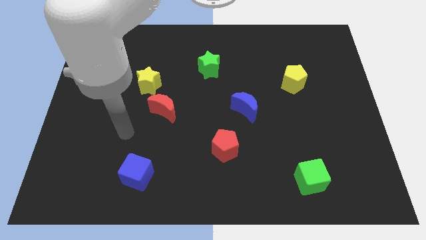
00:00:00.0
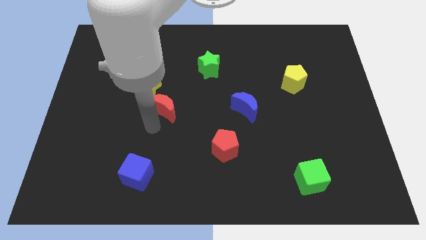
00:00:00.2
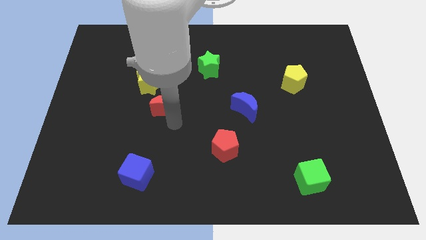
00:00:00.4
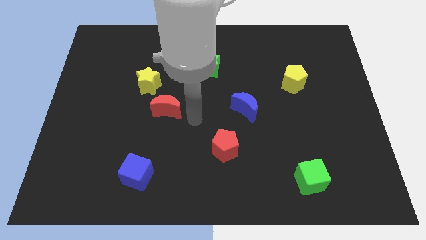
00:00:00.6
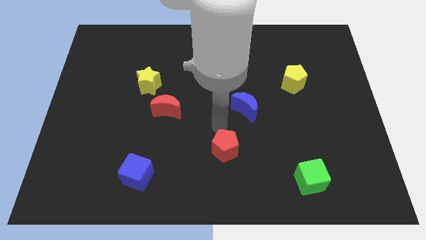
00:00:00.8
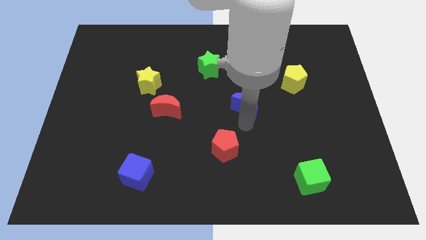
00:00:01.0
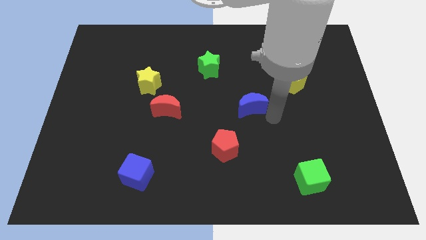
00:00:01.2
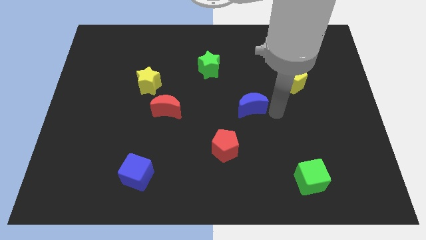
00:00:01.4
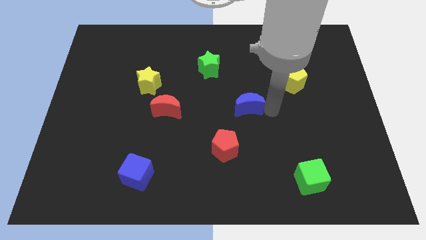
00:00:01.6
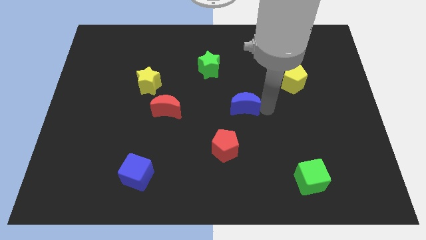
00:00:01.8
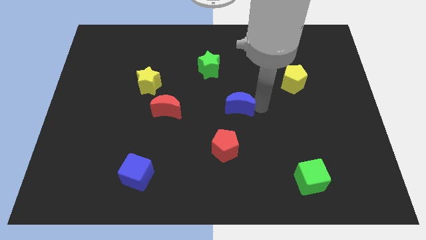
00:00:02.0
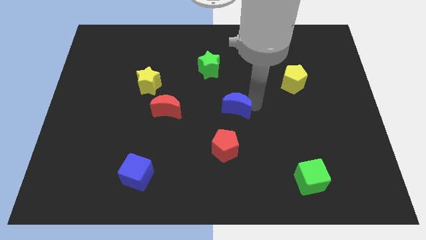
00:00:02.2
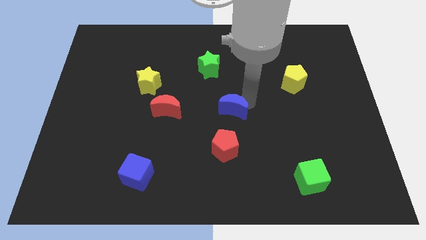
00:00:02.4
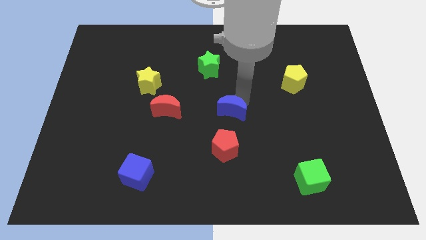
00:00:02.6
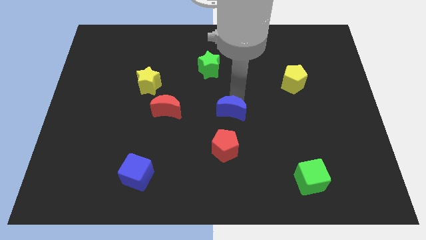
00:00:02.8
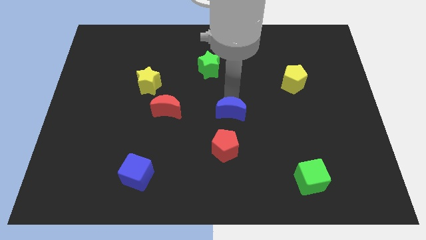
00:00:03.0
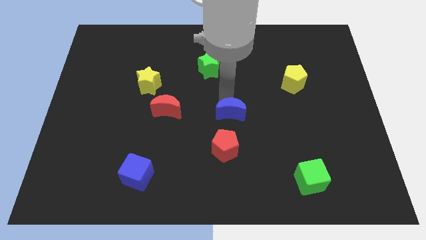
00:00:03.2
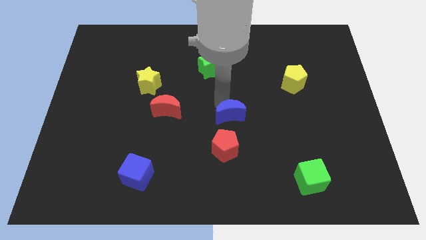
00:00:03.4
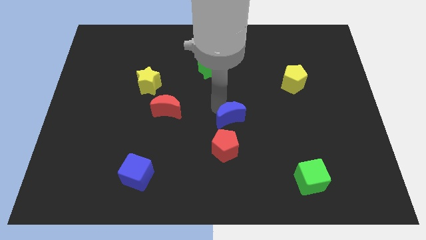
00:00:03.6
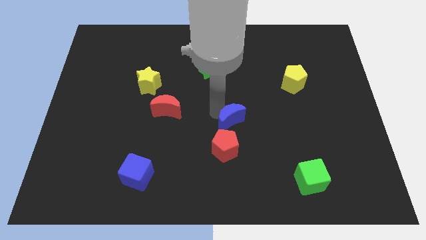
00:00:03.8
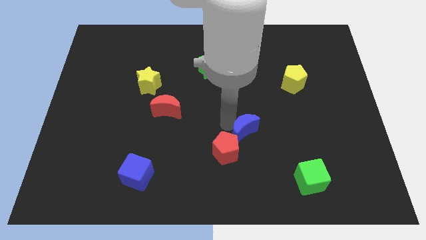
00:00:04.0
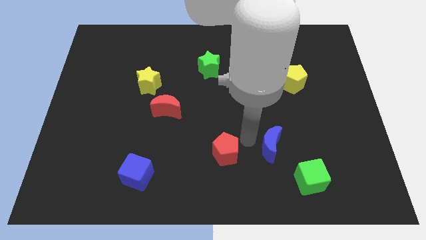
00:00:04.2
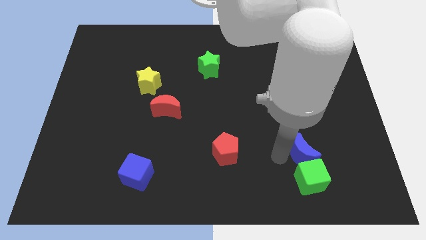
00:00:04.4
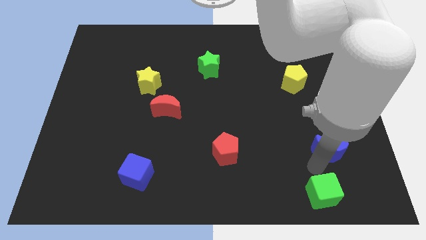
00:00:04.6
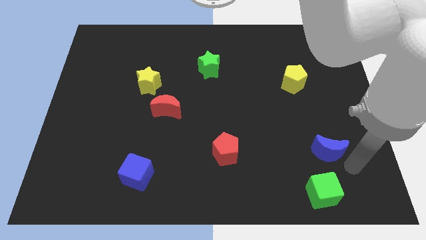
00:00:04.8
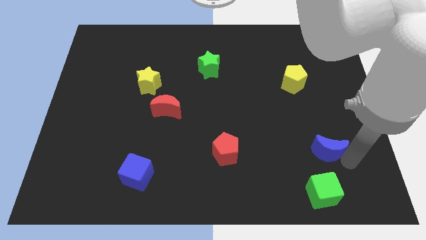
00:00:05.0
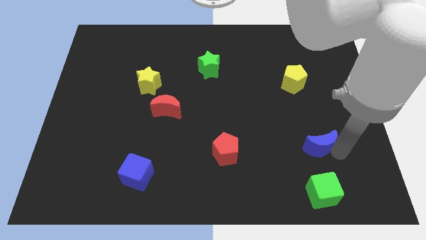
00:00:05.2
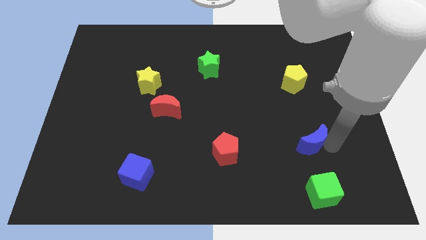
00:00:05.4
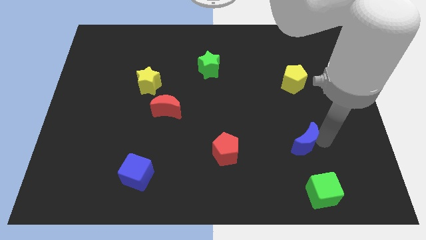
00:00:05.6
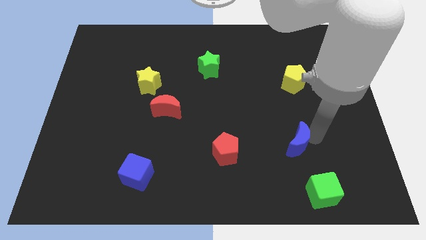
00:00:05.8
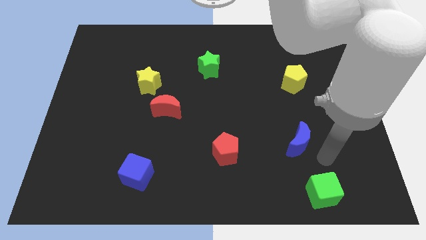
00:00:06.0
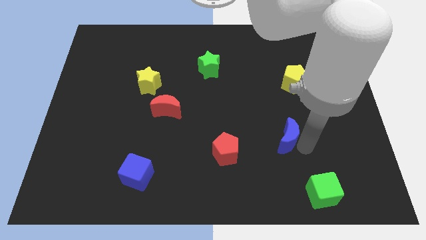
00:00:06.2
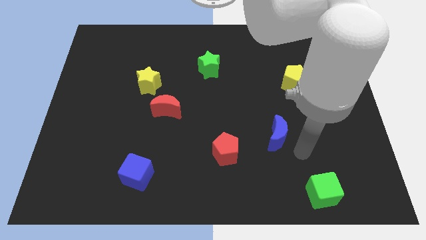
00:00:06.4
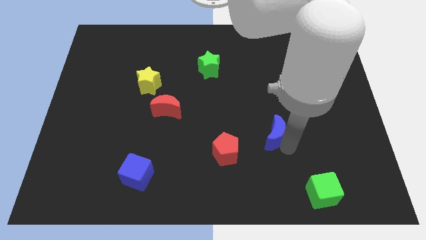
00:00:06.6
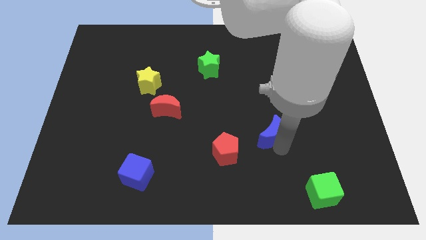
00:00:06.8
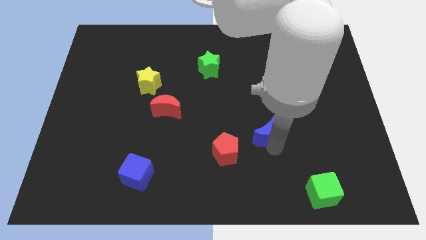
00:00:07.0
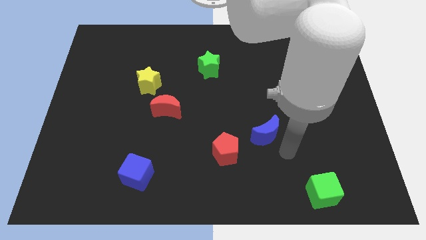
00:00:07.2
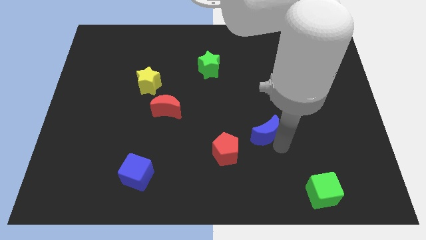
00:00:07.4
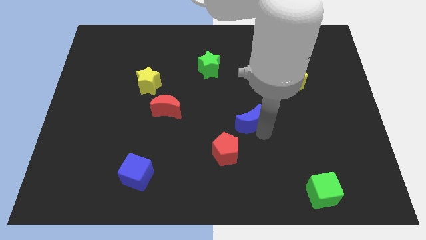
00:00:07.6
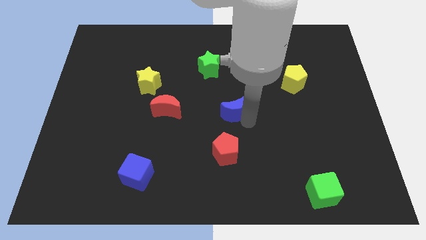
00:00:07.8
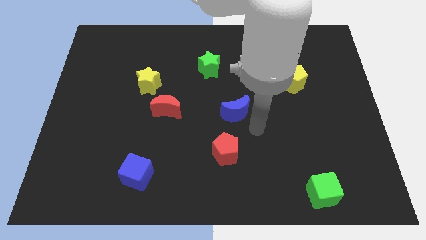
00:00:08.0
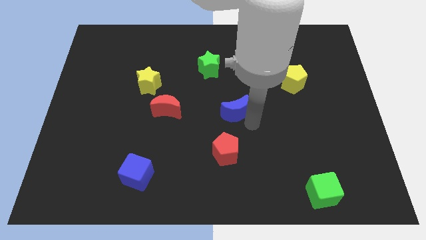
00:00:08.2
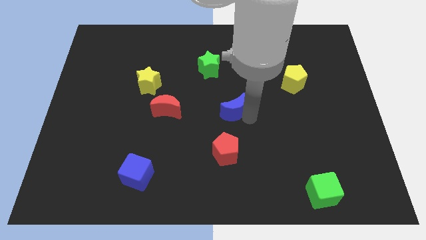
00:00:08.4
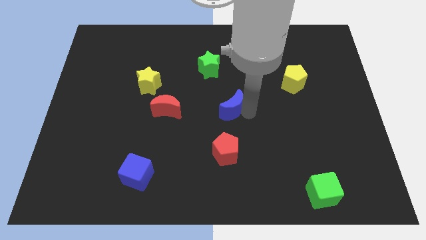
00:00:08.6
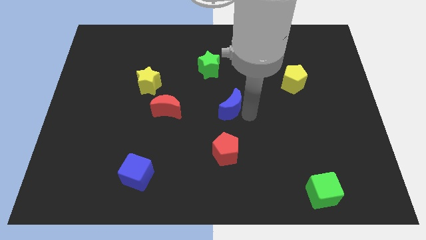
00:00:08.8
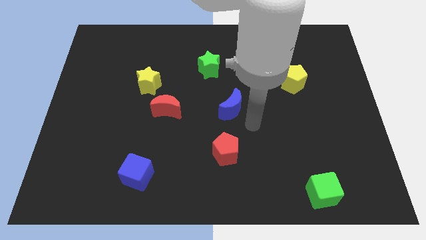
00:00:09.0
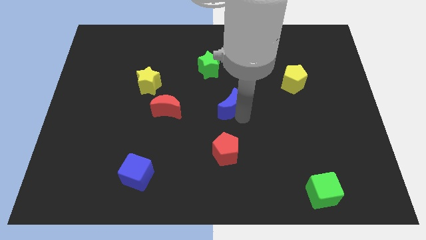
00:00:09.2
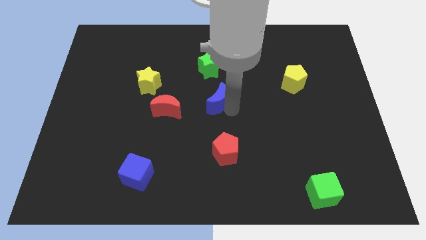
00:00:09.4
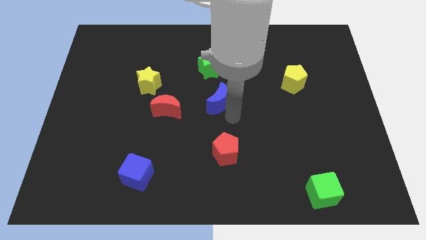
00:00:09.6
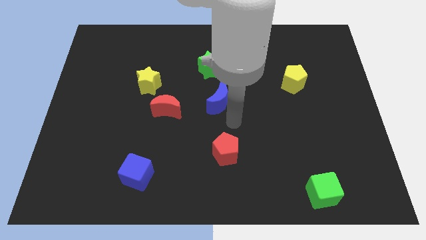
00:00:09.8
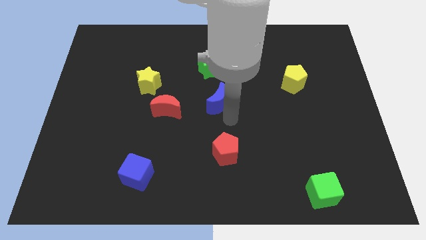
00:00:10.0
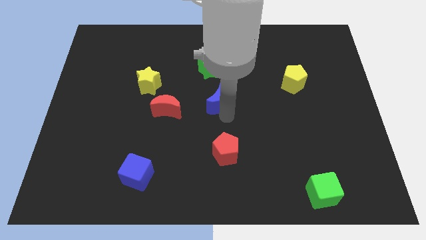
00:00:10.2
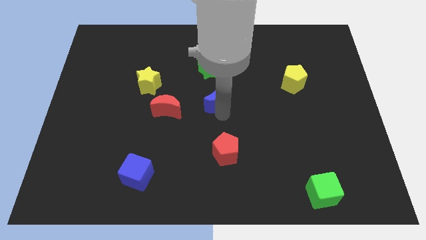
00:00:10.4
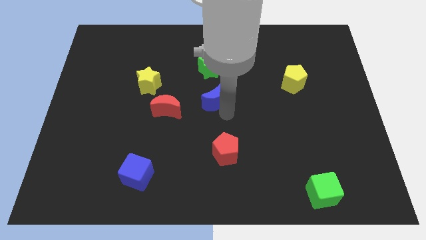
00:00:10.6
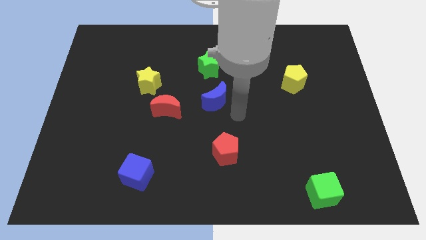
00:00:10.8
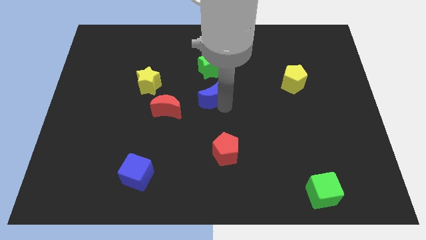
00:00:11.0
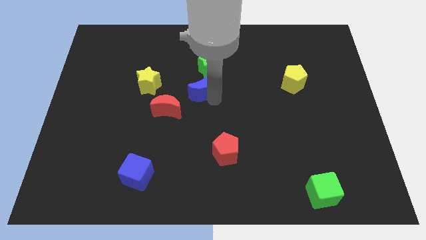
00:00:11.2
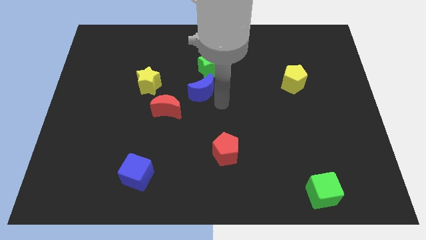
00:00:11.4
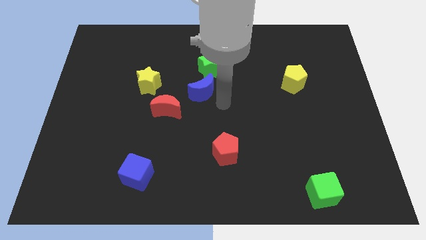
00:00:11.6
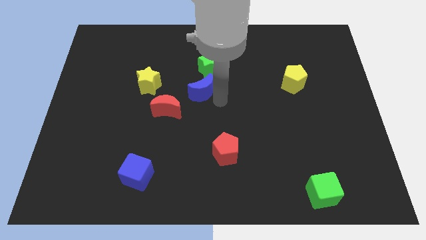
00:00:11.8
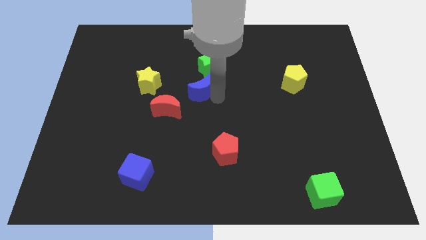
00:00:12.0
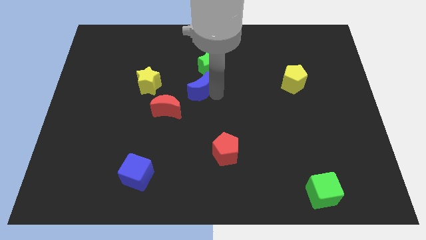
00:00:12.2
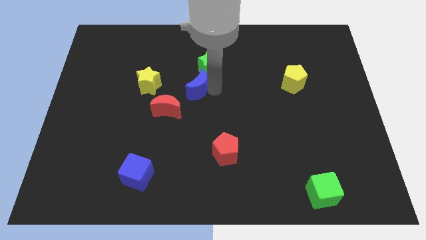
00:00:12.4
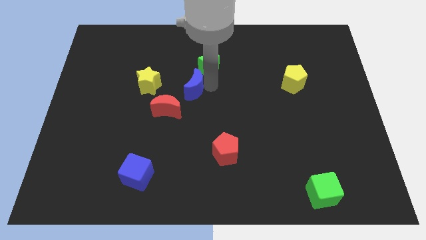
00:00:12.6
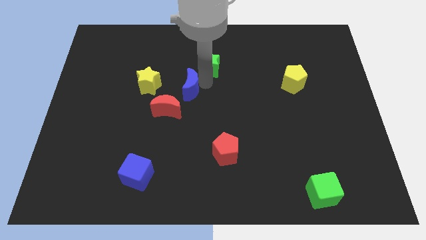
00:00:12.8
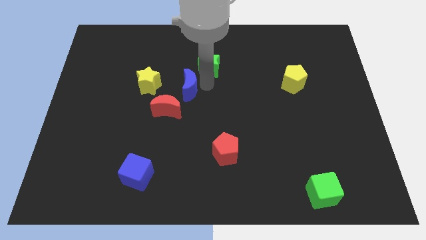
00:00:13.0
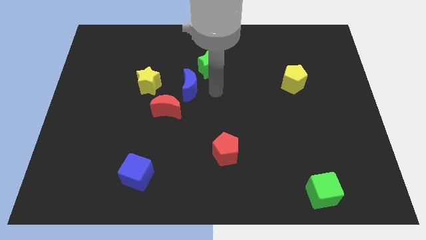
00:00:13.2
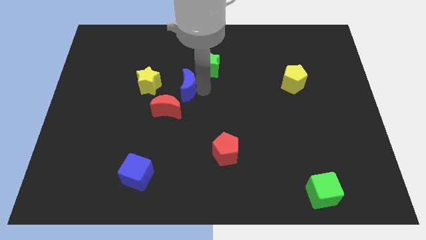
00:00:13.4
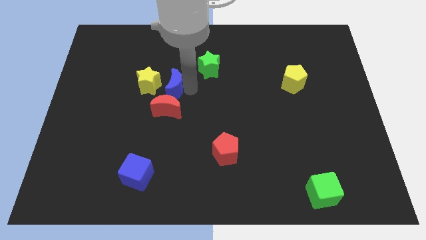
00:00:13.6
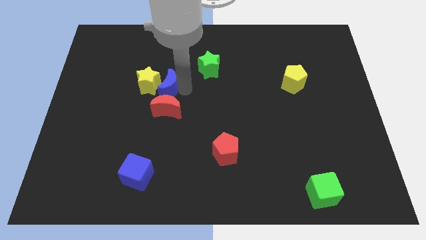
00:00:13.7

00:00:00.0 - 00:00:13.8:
slide the blue moon next to the yellow star

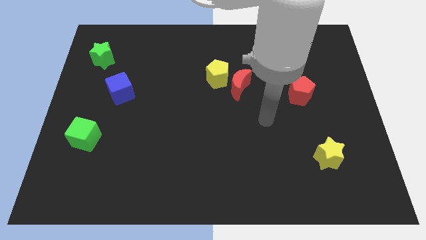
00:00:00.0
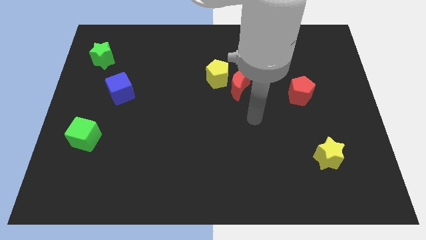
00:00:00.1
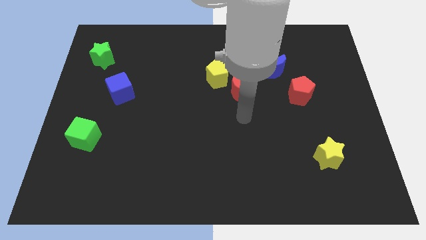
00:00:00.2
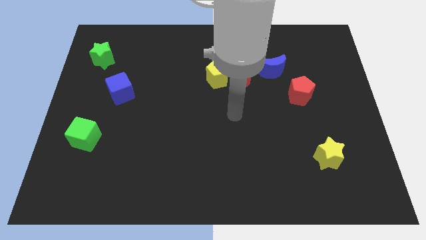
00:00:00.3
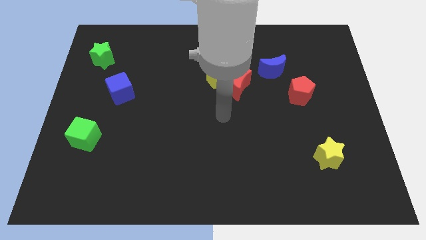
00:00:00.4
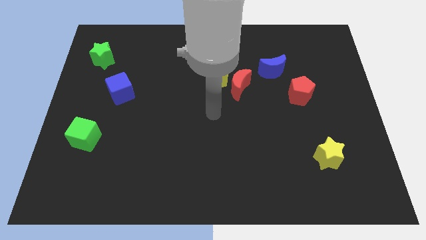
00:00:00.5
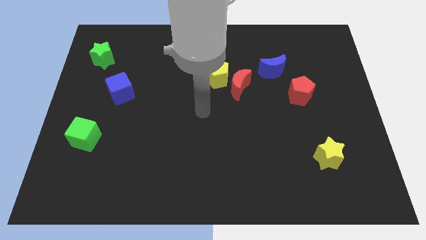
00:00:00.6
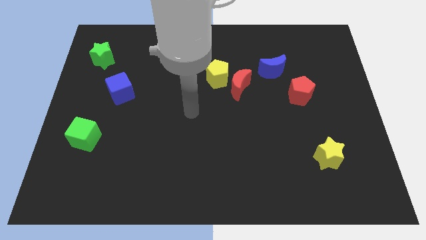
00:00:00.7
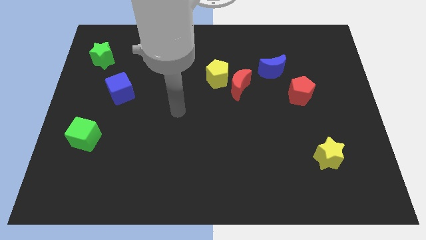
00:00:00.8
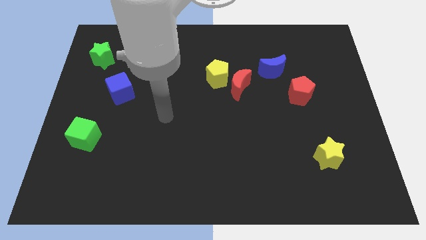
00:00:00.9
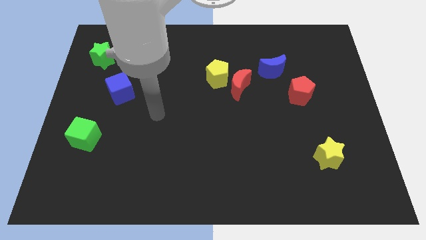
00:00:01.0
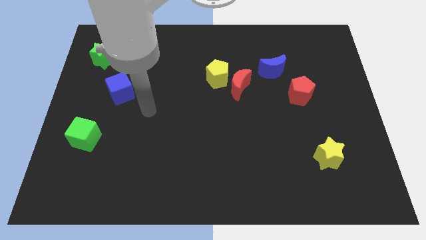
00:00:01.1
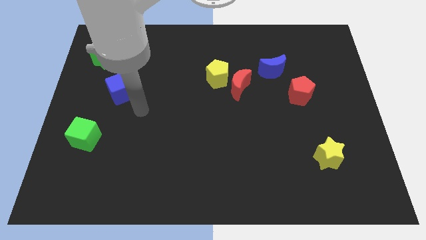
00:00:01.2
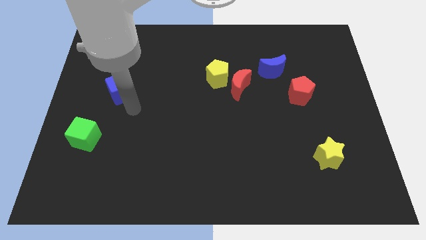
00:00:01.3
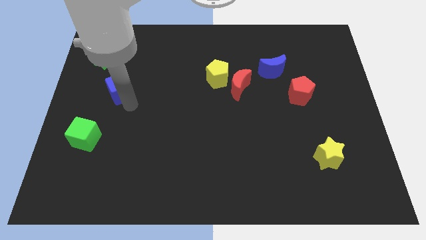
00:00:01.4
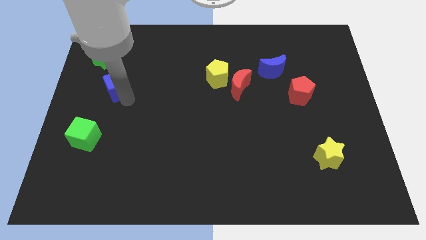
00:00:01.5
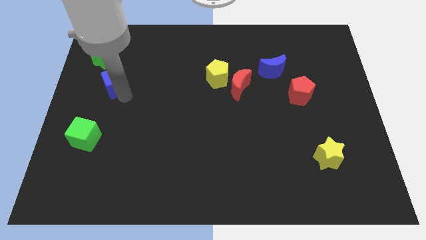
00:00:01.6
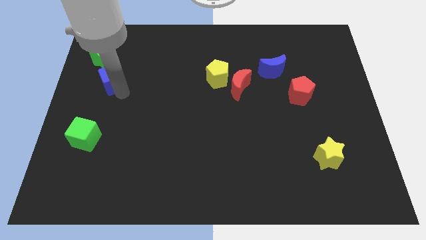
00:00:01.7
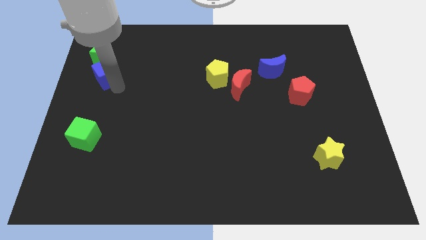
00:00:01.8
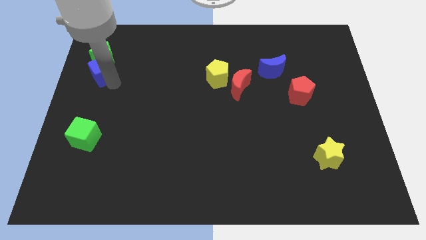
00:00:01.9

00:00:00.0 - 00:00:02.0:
move the blue cube to the green star
